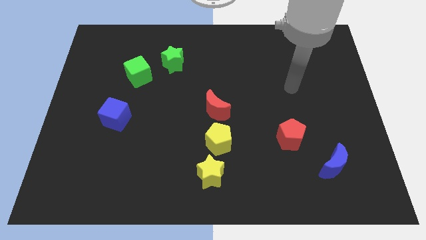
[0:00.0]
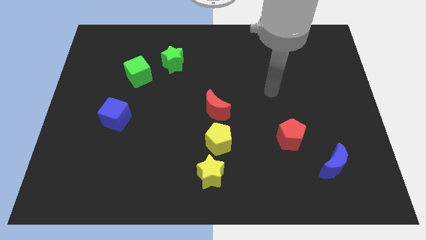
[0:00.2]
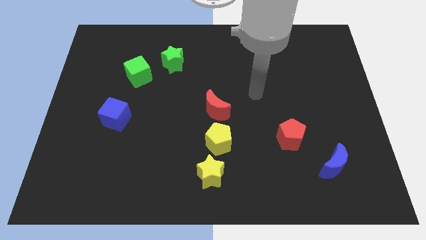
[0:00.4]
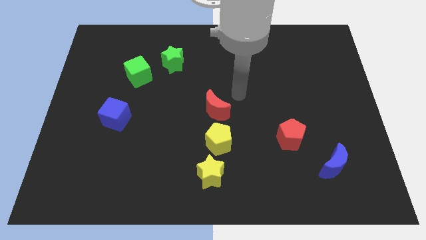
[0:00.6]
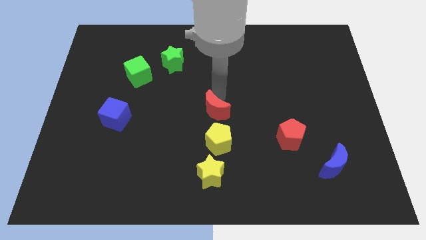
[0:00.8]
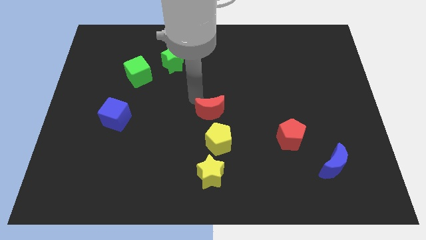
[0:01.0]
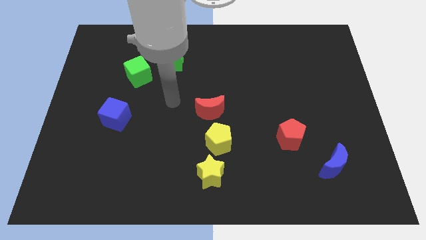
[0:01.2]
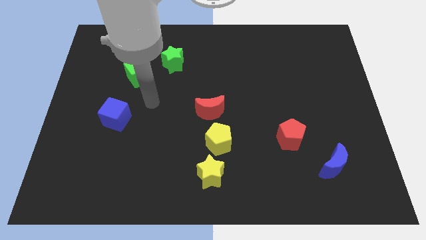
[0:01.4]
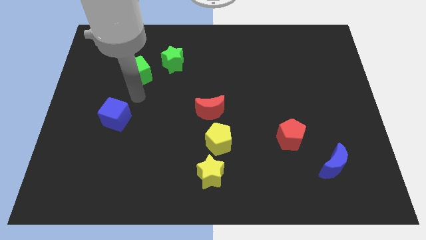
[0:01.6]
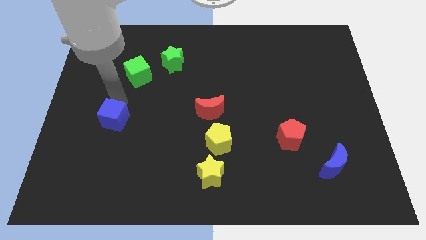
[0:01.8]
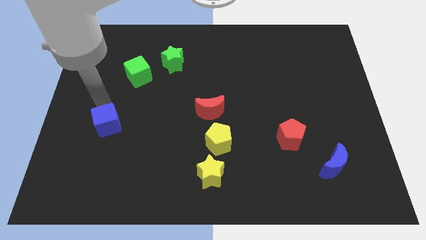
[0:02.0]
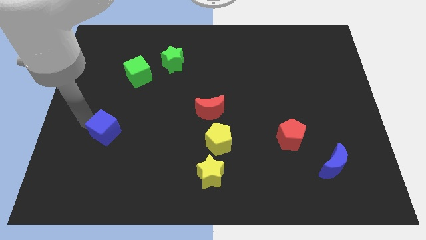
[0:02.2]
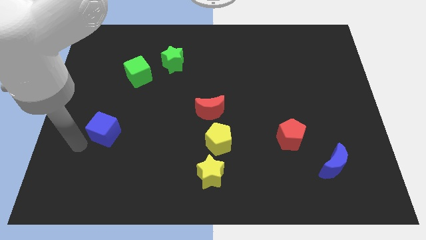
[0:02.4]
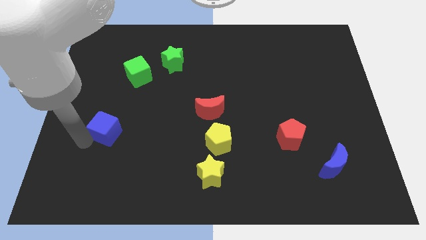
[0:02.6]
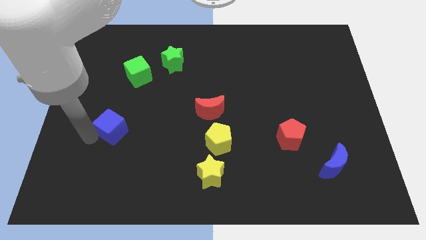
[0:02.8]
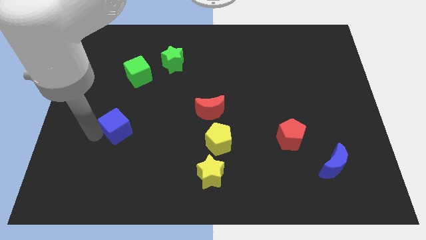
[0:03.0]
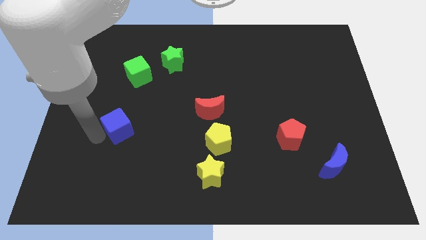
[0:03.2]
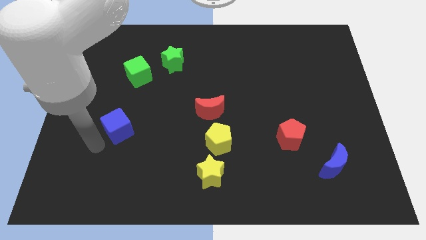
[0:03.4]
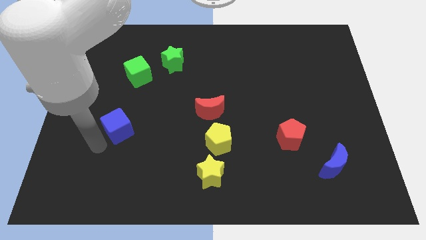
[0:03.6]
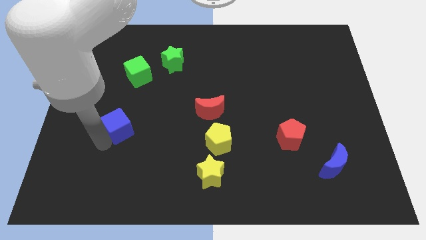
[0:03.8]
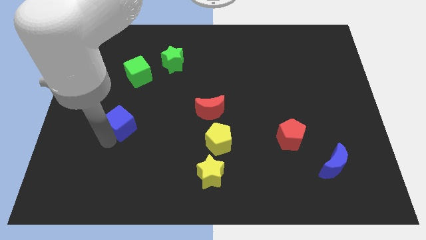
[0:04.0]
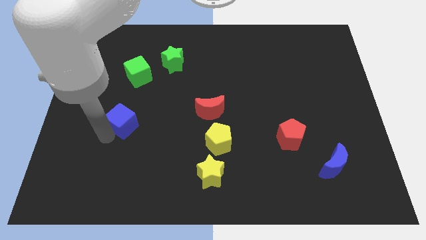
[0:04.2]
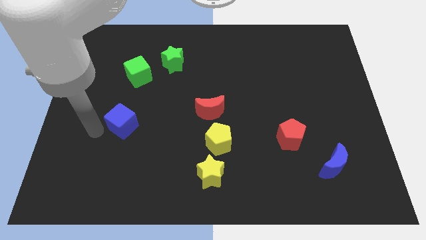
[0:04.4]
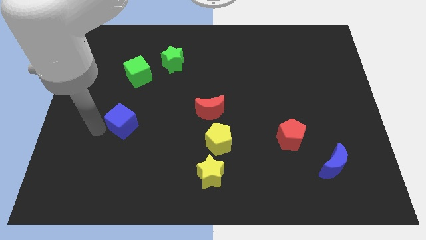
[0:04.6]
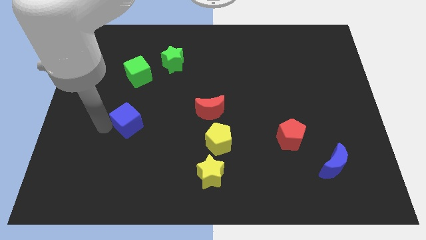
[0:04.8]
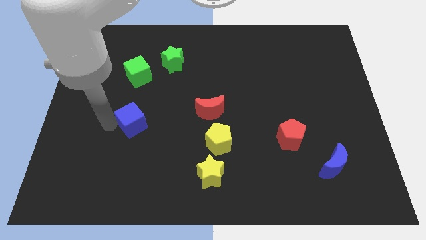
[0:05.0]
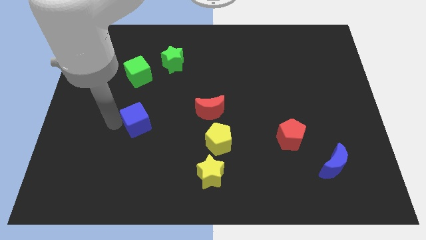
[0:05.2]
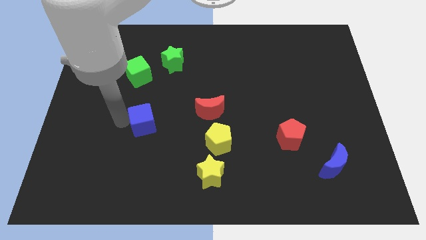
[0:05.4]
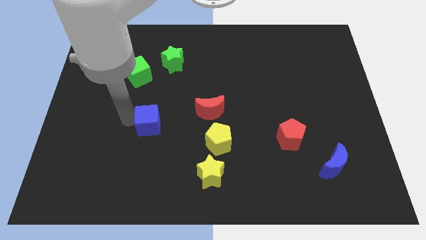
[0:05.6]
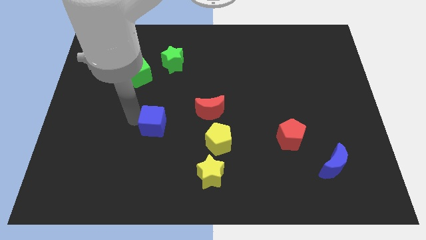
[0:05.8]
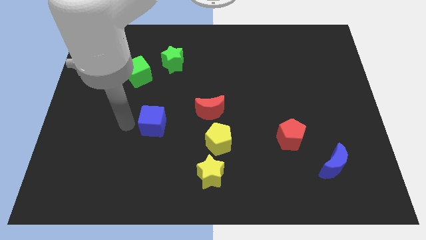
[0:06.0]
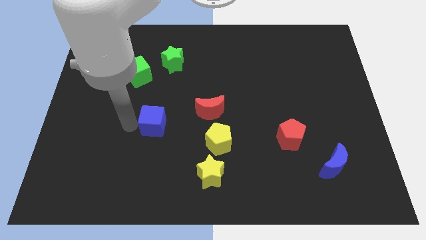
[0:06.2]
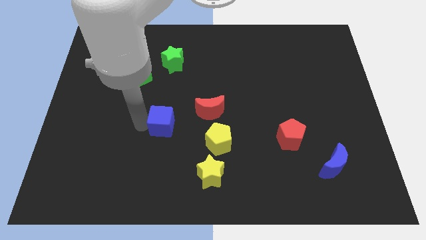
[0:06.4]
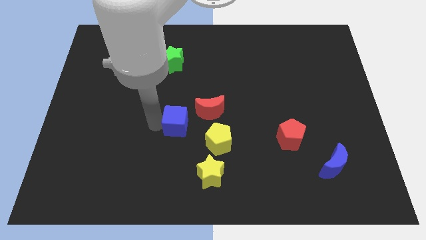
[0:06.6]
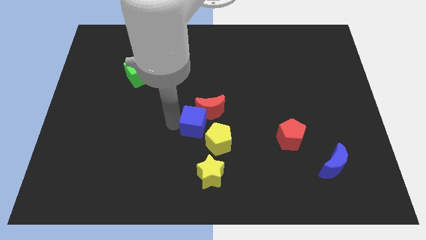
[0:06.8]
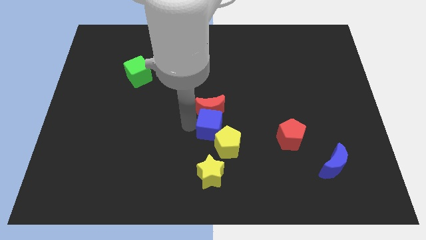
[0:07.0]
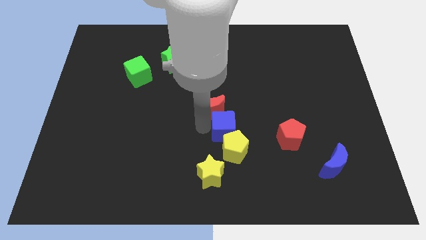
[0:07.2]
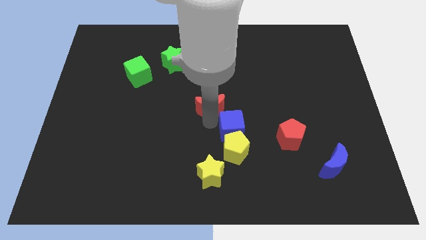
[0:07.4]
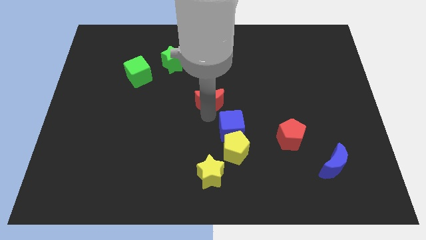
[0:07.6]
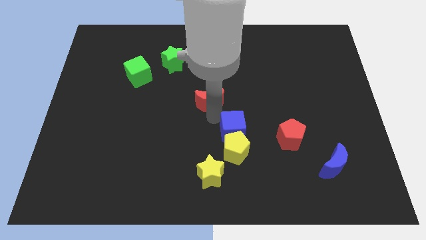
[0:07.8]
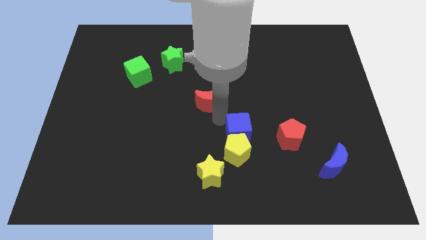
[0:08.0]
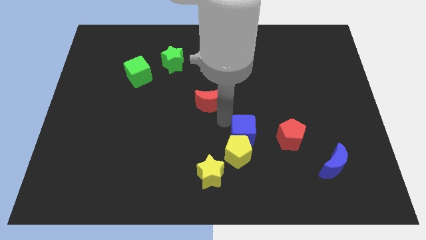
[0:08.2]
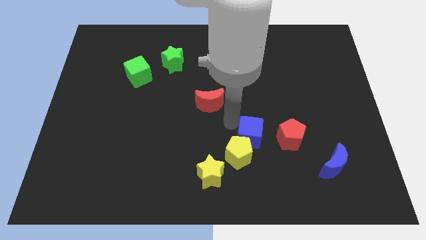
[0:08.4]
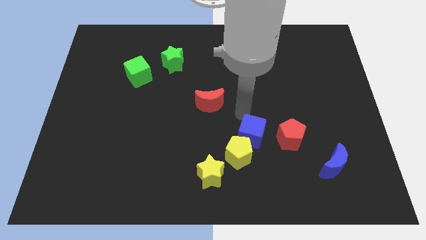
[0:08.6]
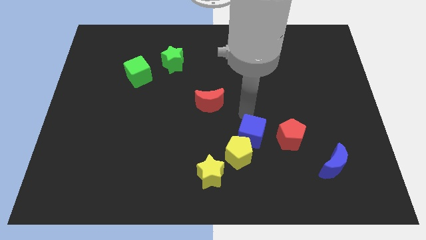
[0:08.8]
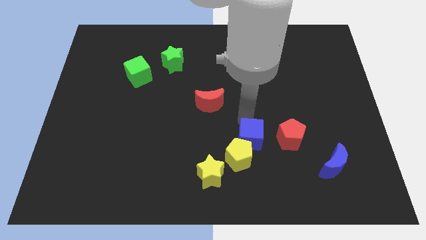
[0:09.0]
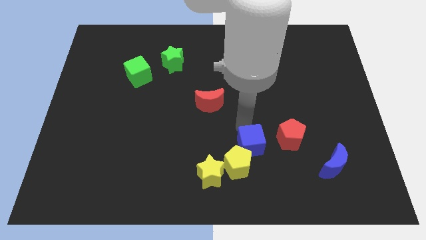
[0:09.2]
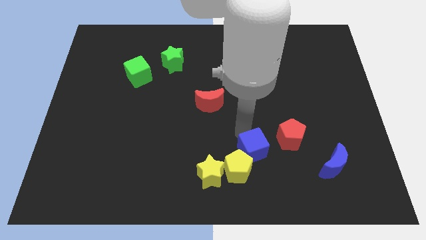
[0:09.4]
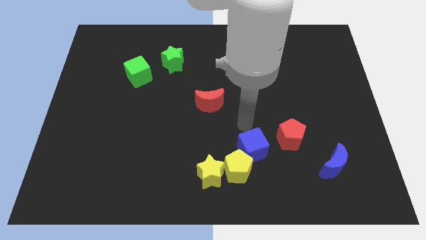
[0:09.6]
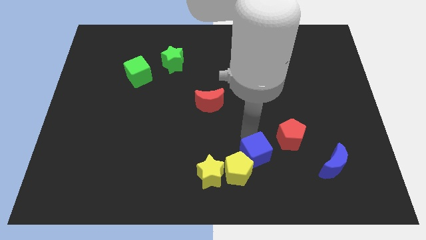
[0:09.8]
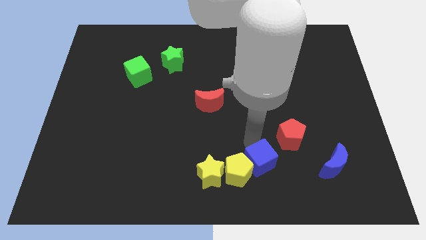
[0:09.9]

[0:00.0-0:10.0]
push the blue cube just right of the yellow star

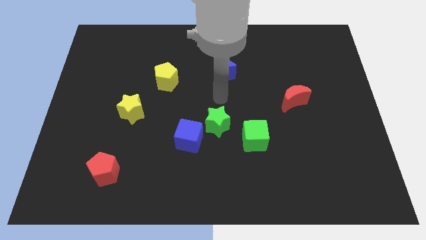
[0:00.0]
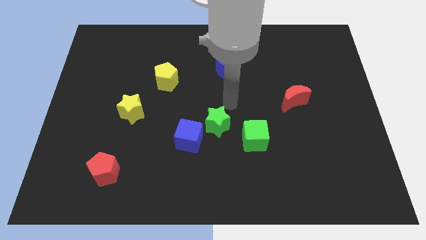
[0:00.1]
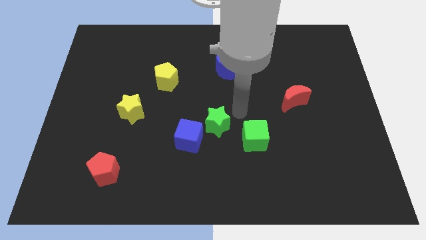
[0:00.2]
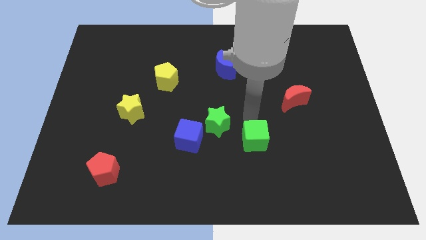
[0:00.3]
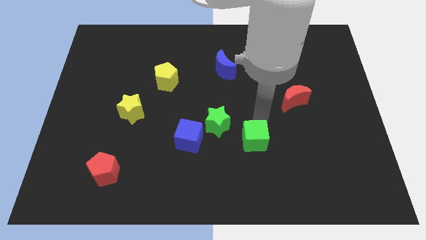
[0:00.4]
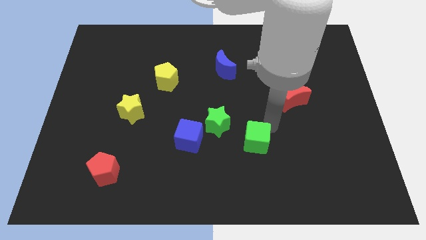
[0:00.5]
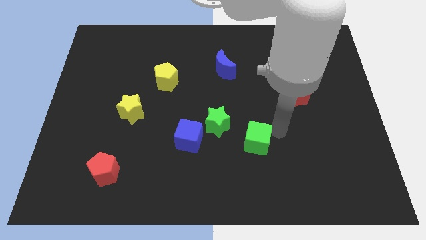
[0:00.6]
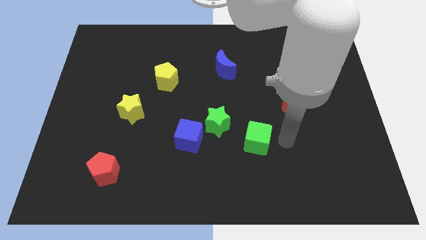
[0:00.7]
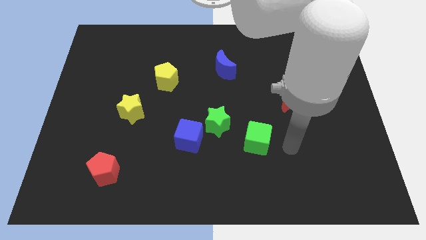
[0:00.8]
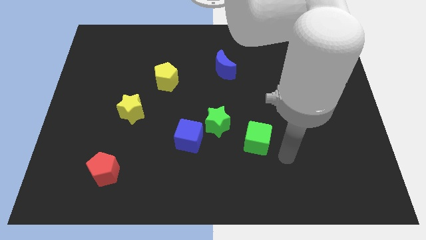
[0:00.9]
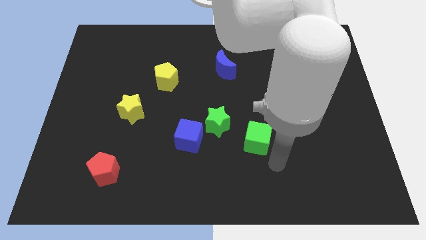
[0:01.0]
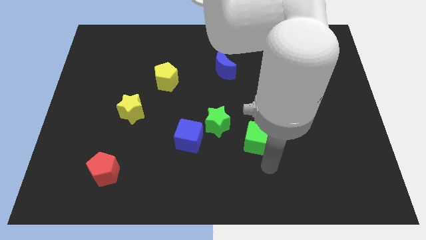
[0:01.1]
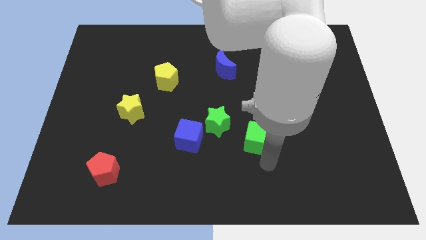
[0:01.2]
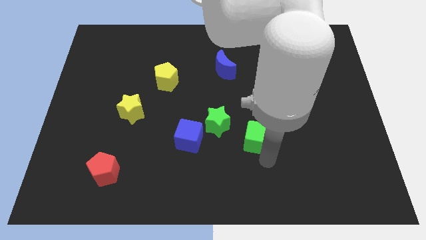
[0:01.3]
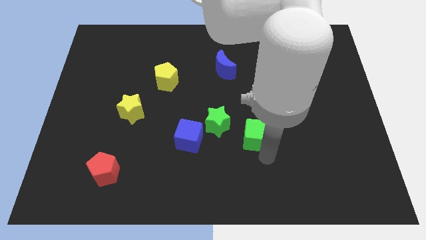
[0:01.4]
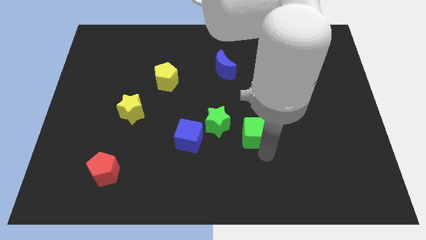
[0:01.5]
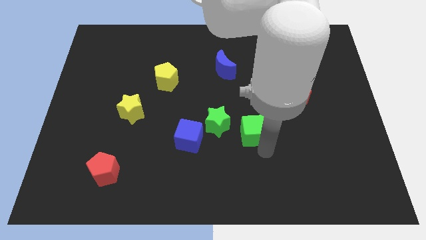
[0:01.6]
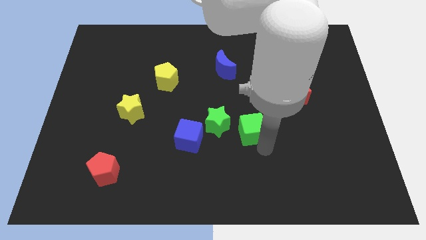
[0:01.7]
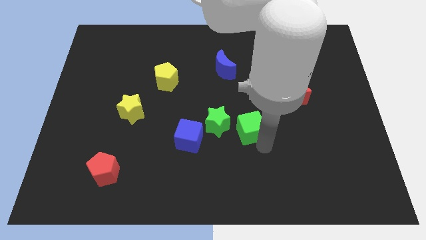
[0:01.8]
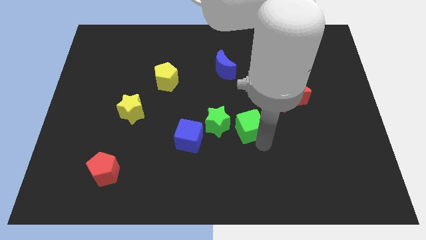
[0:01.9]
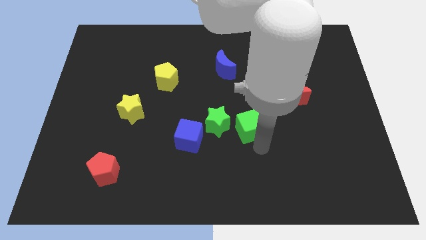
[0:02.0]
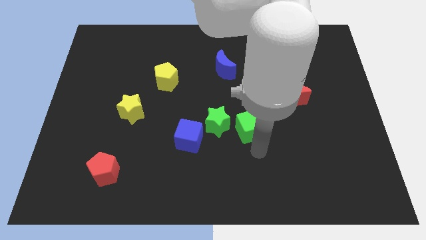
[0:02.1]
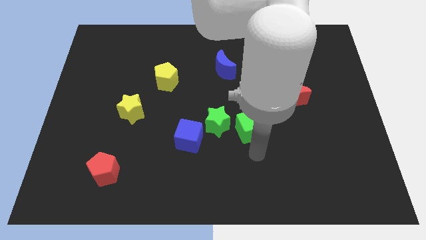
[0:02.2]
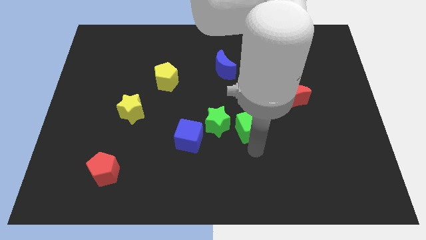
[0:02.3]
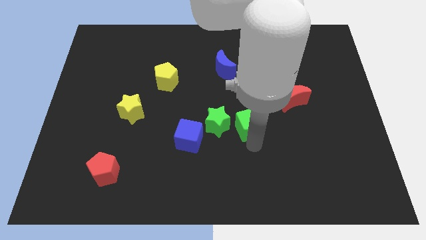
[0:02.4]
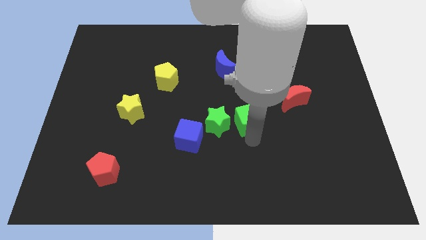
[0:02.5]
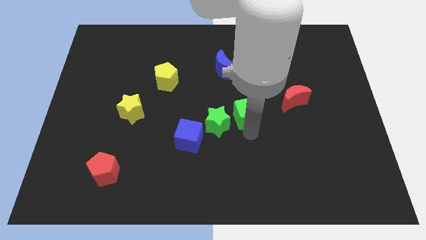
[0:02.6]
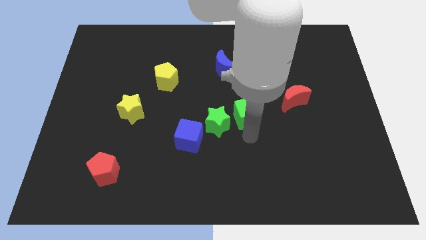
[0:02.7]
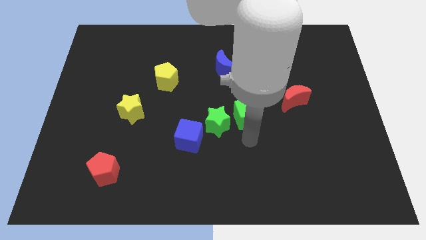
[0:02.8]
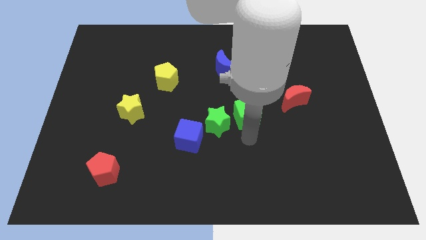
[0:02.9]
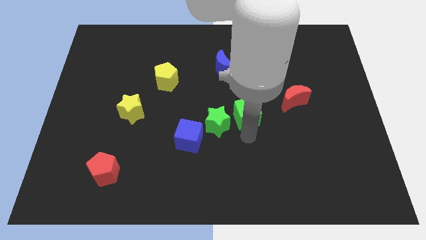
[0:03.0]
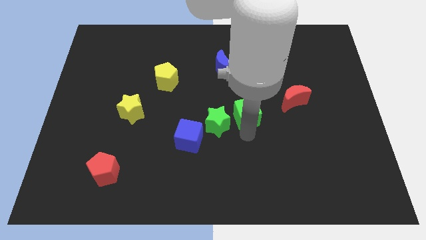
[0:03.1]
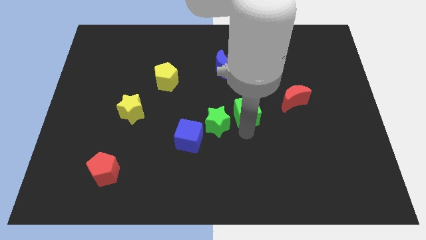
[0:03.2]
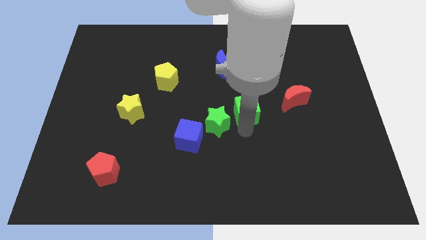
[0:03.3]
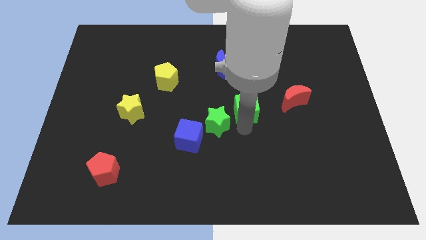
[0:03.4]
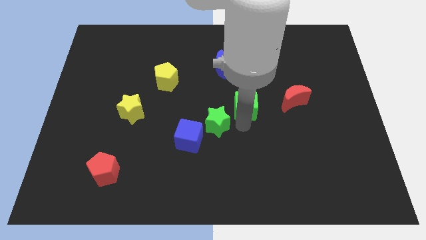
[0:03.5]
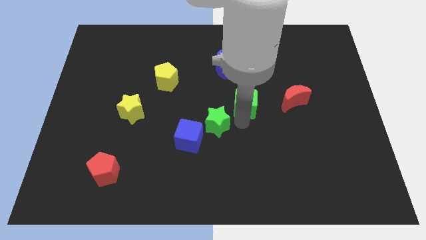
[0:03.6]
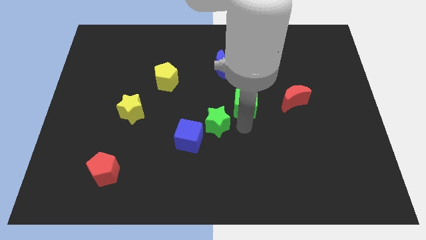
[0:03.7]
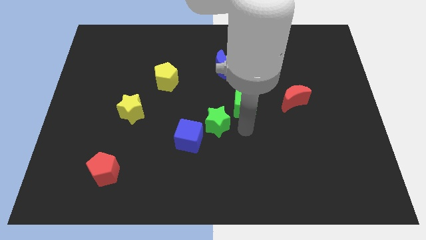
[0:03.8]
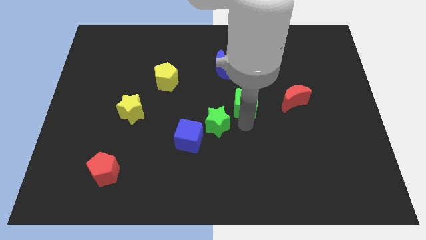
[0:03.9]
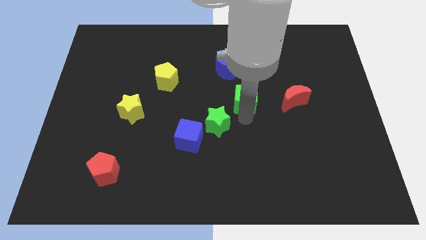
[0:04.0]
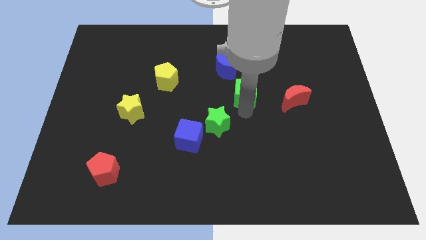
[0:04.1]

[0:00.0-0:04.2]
put the green cube to the bottom right side of the blue moon
